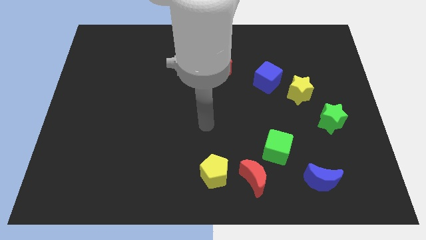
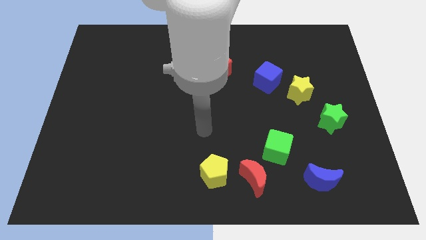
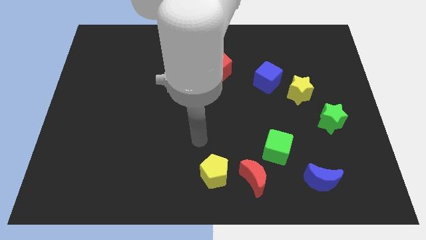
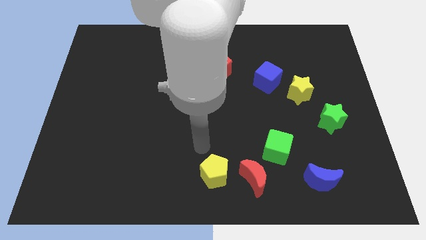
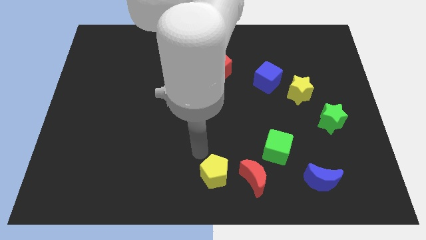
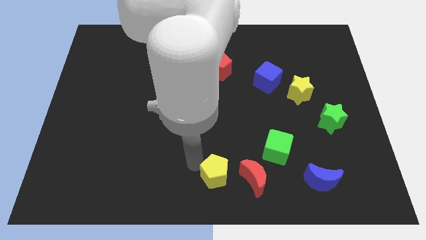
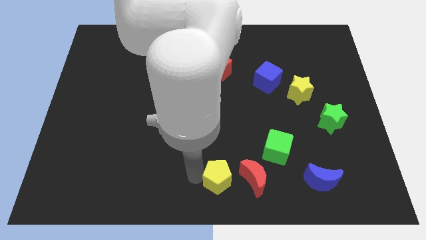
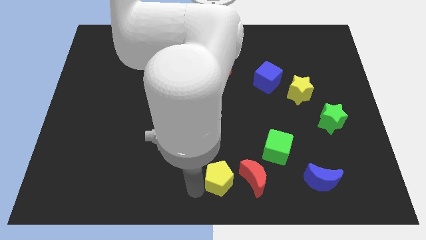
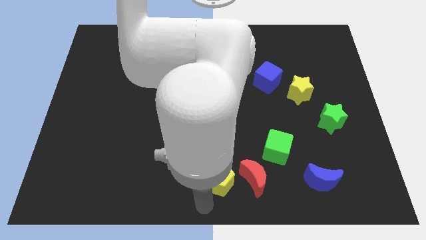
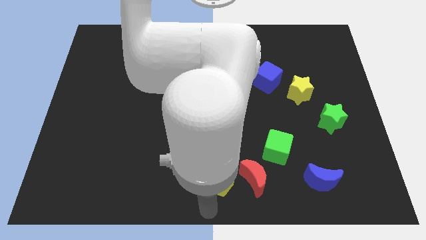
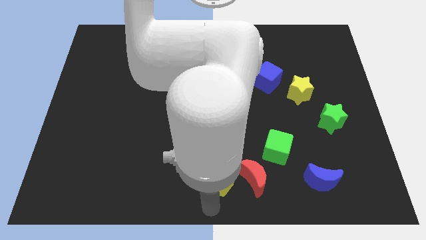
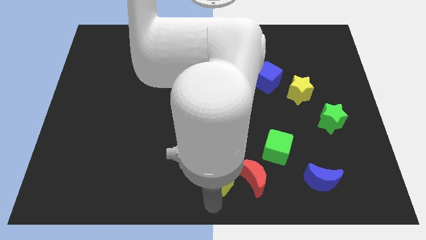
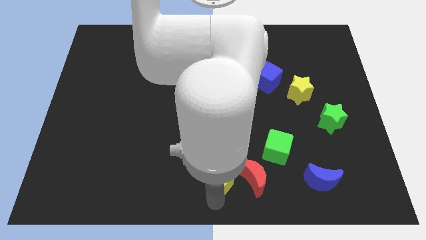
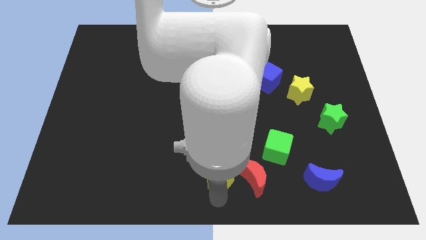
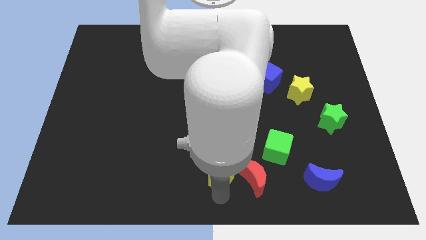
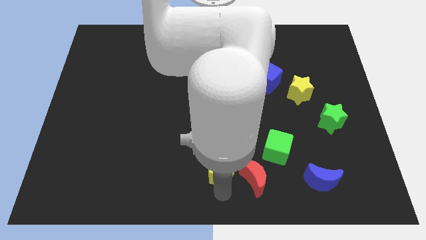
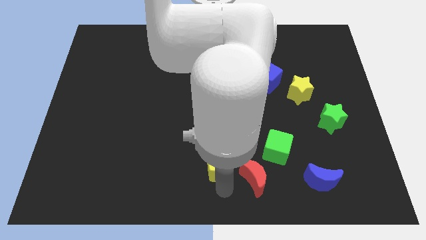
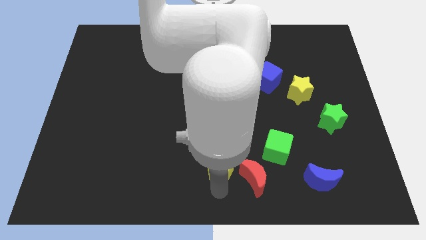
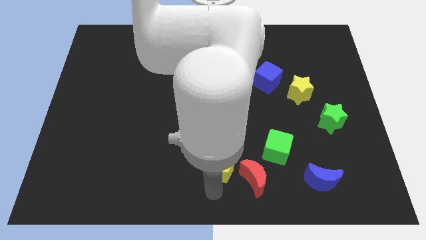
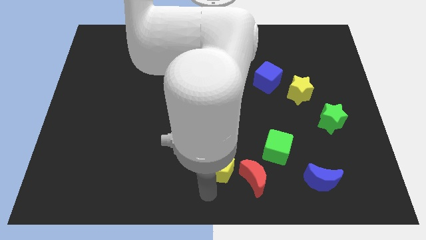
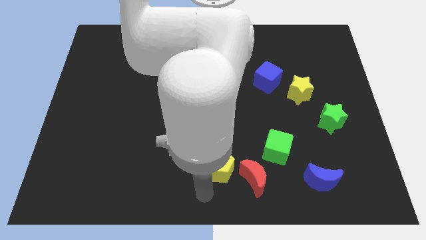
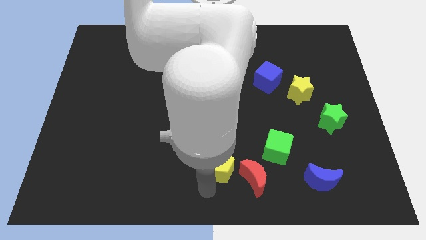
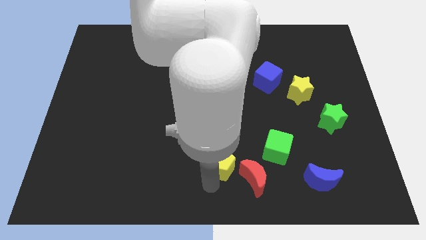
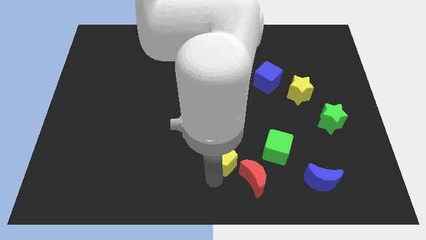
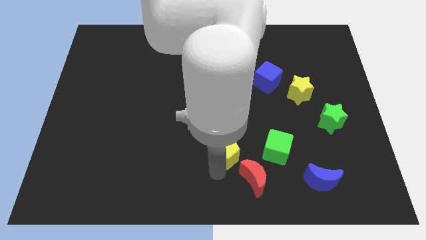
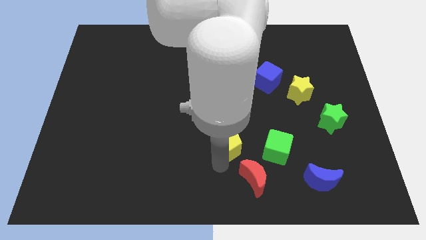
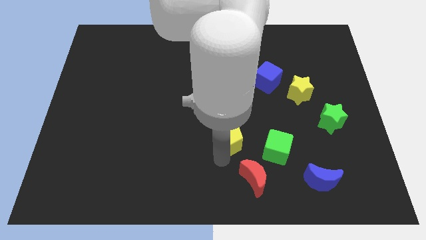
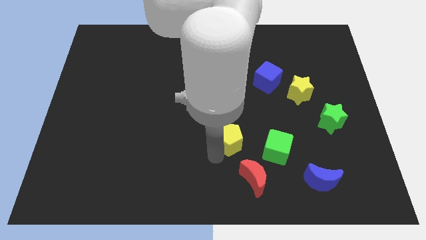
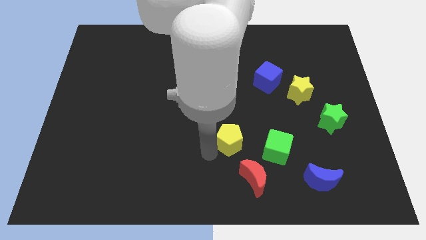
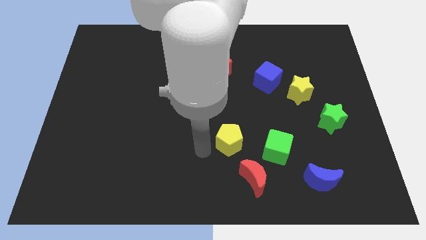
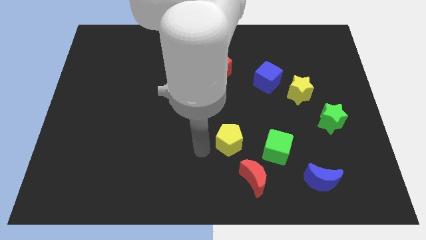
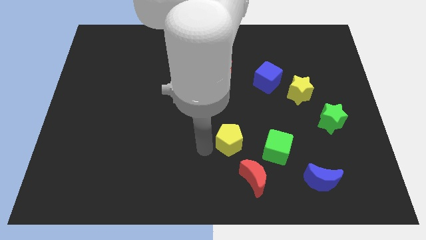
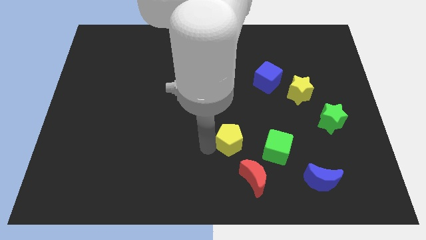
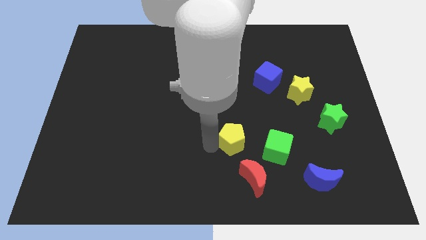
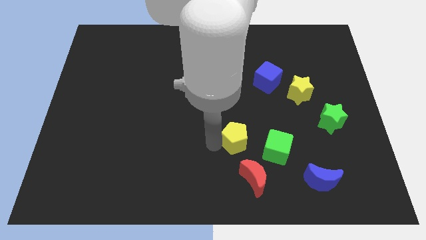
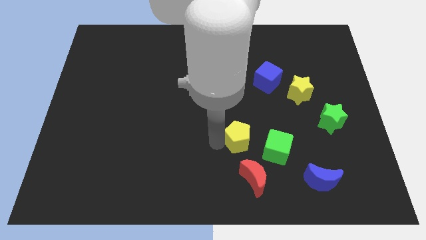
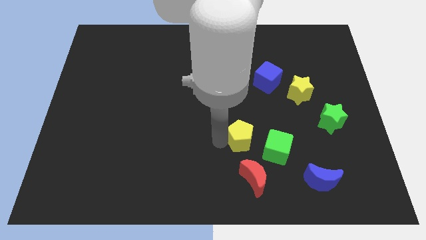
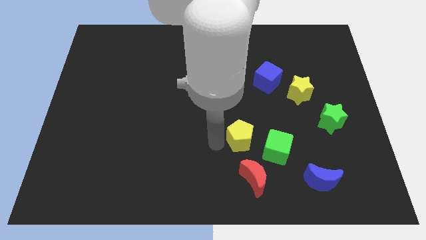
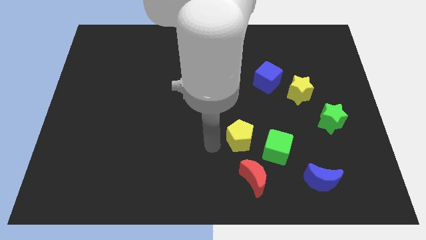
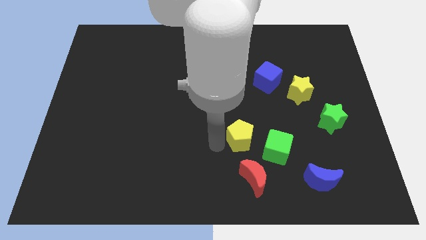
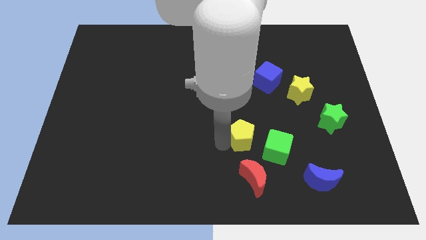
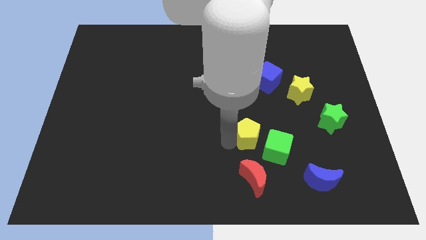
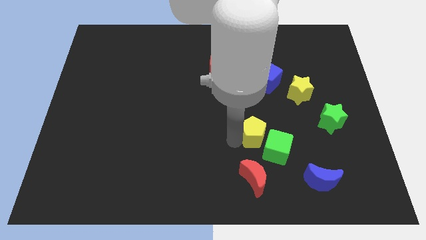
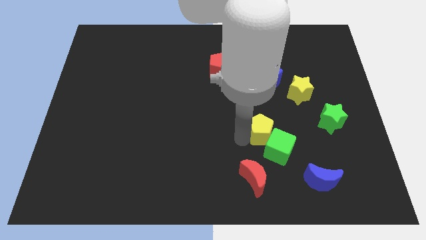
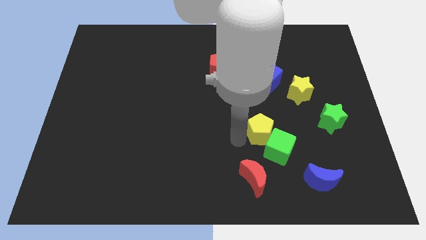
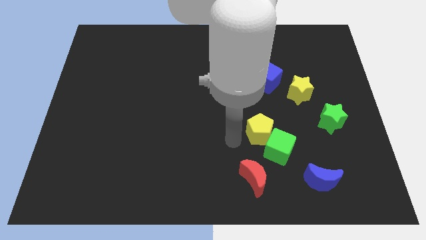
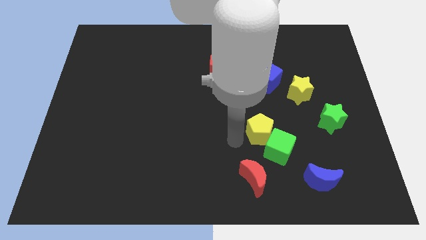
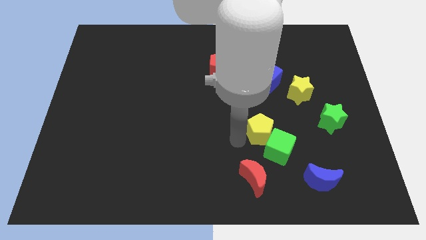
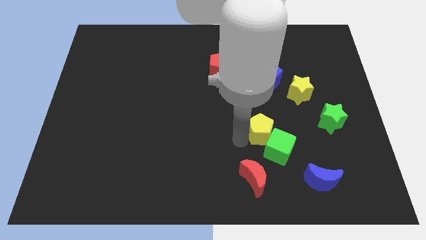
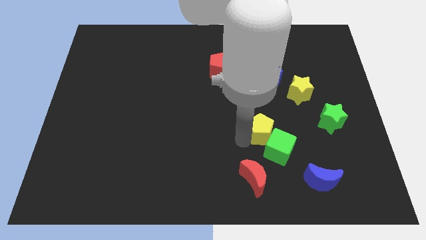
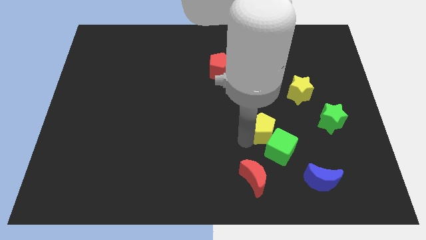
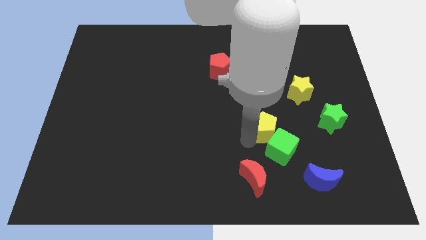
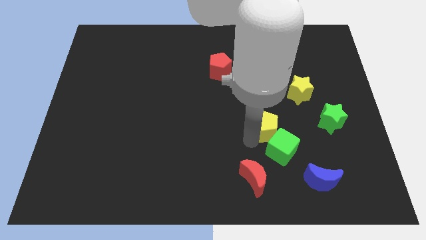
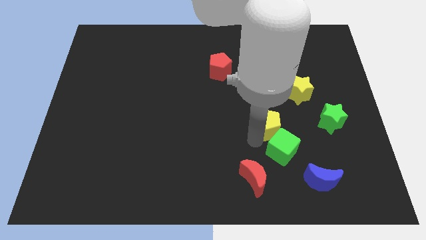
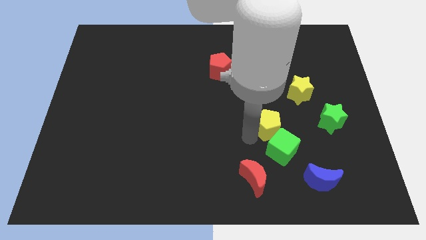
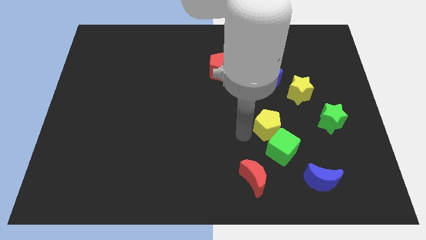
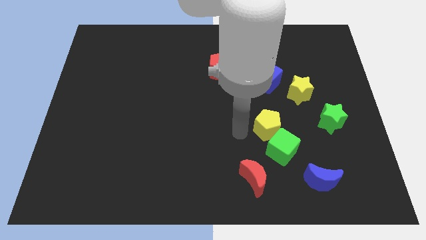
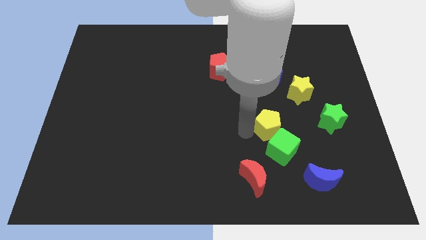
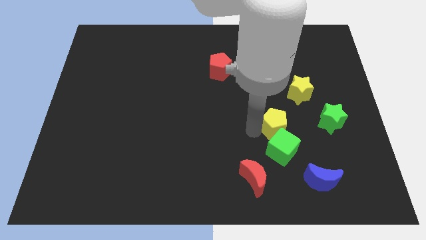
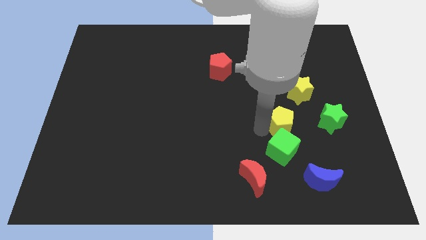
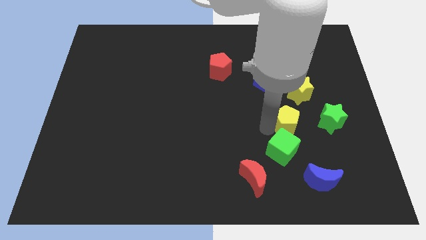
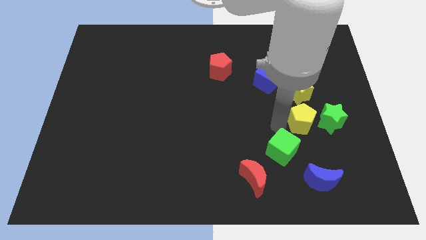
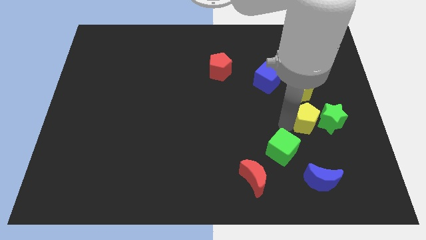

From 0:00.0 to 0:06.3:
put the yellow pentagon next to the green star

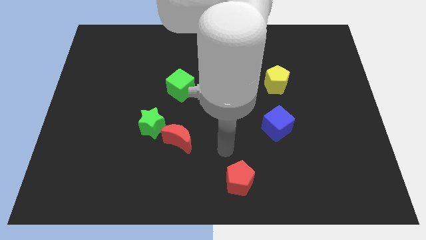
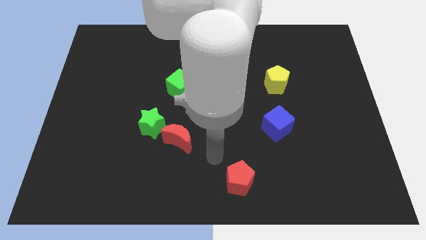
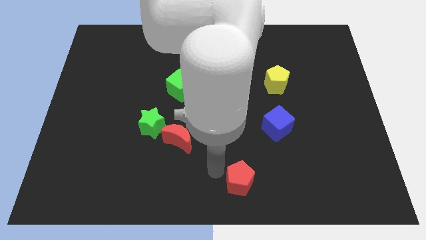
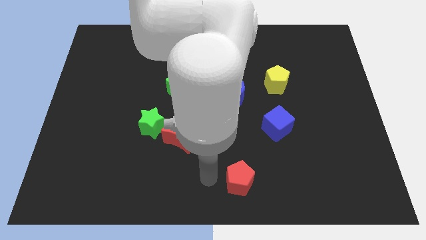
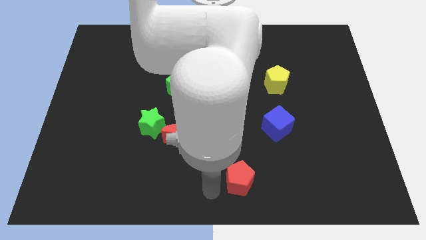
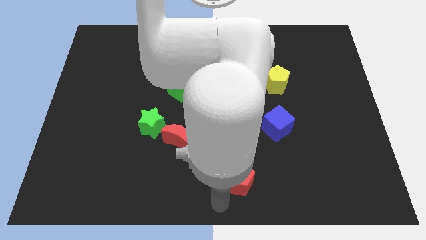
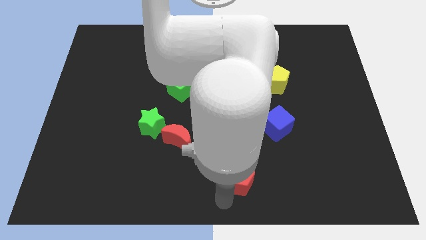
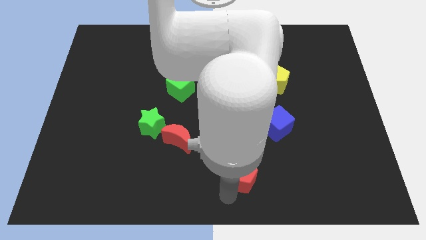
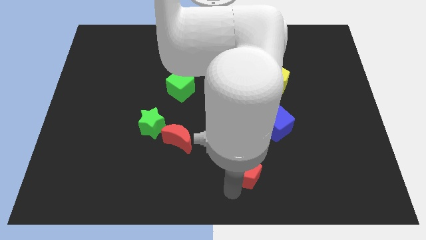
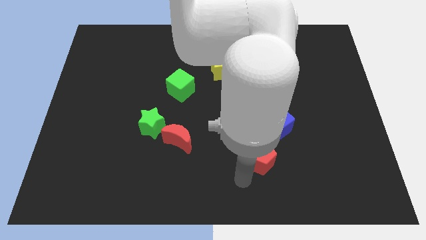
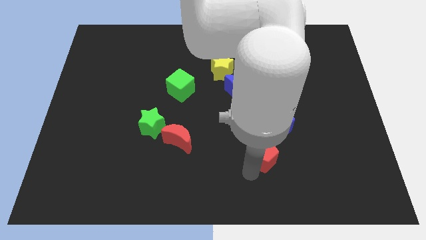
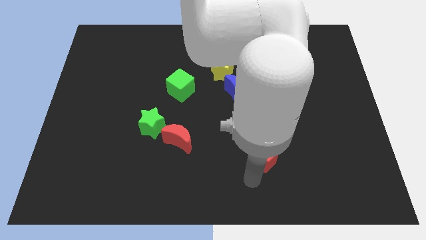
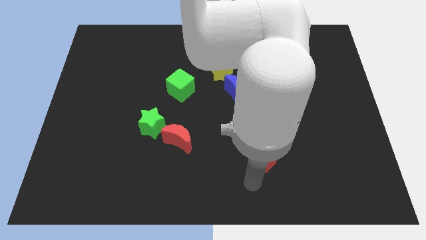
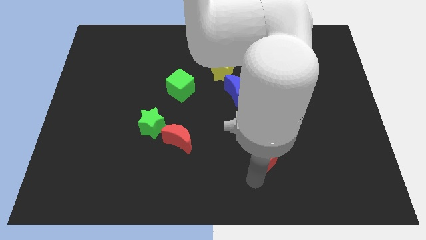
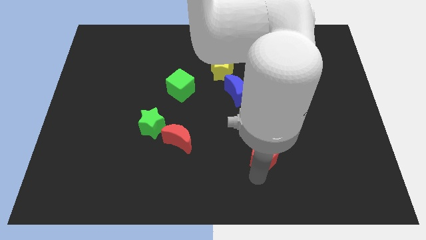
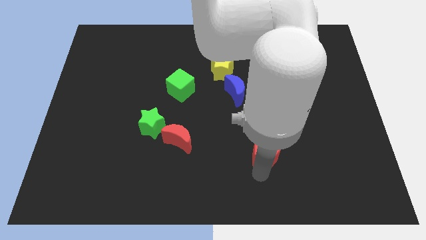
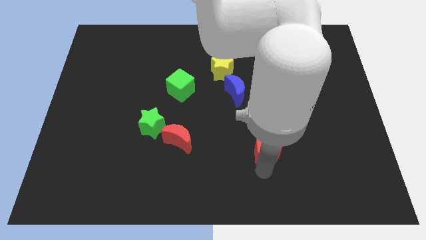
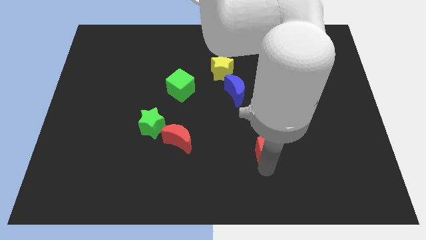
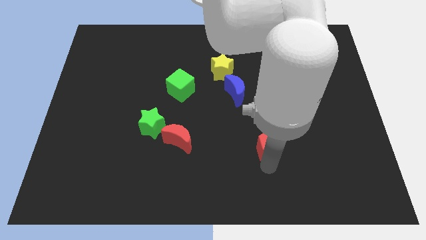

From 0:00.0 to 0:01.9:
move the red pentagon to the blue cube
